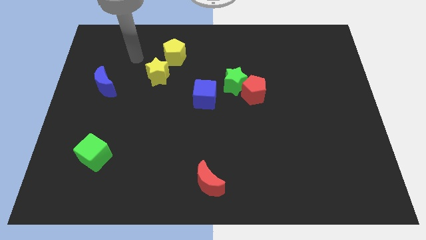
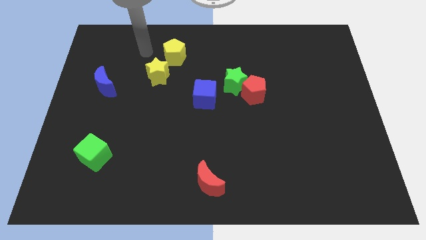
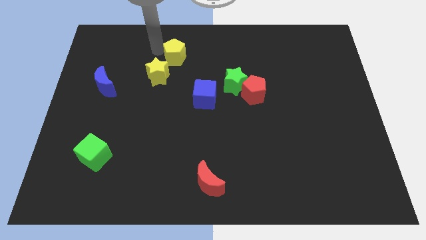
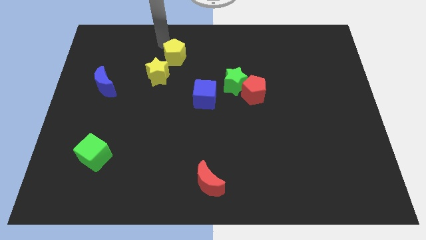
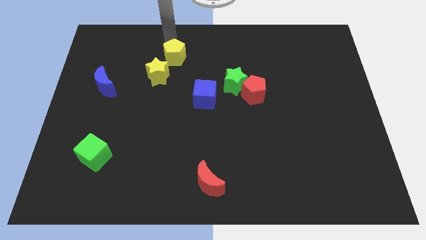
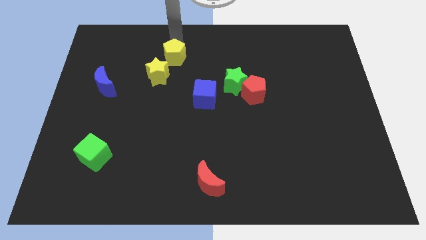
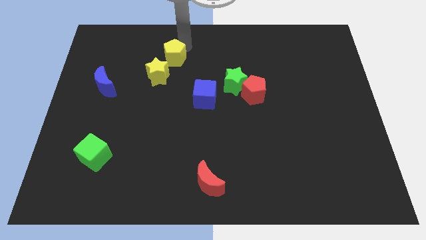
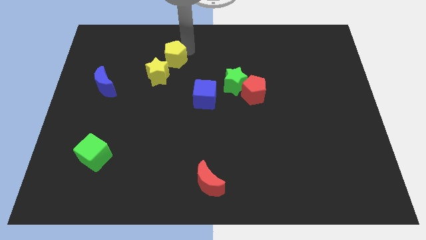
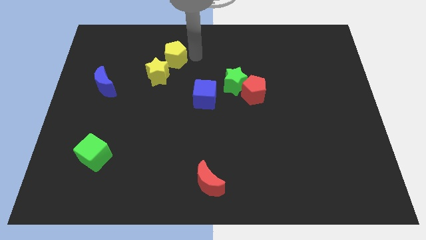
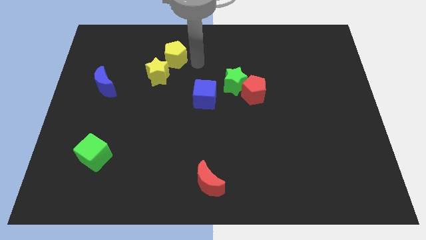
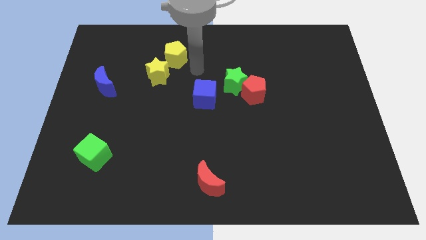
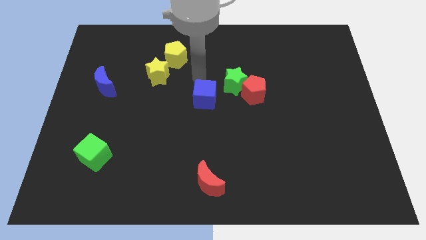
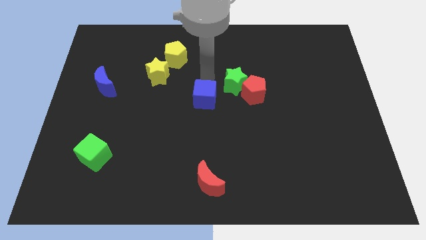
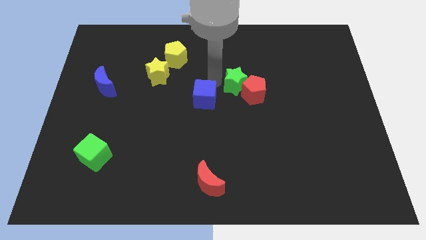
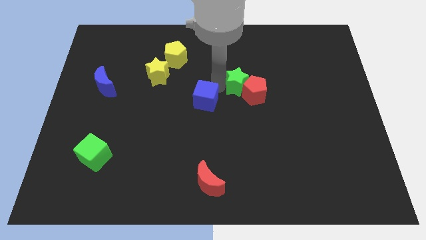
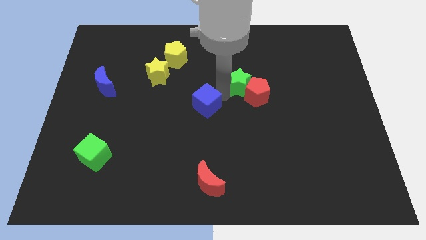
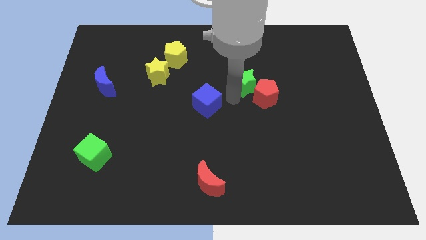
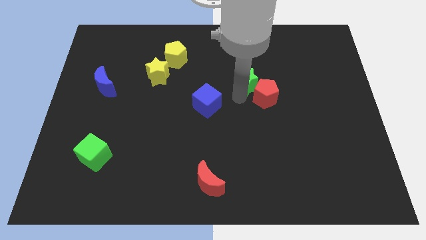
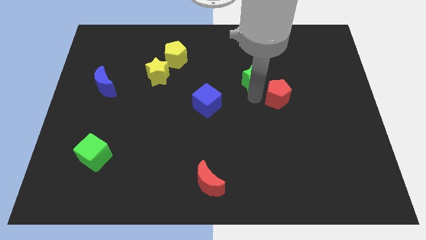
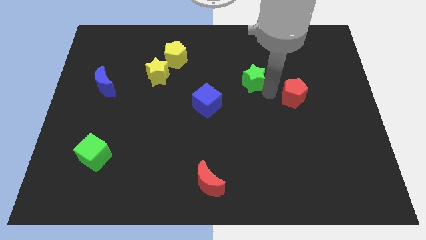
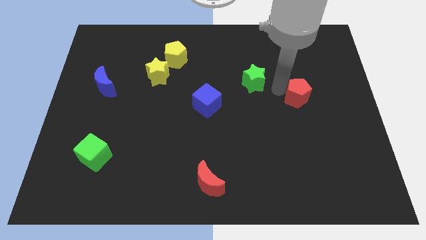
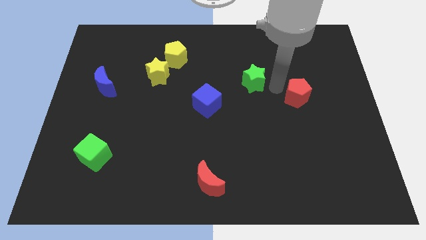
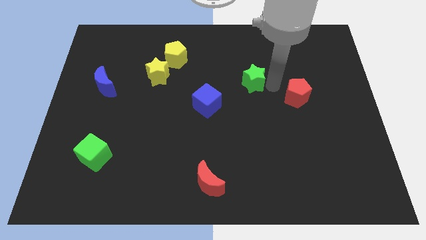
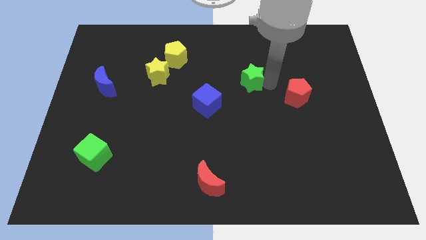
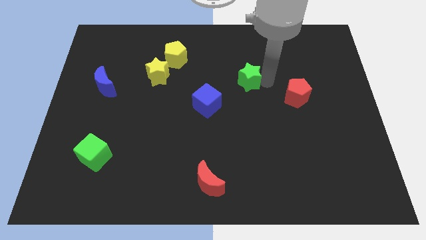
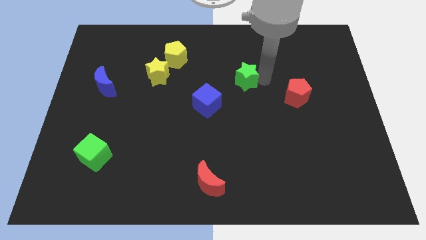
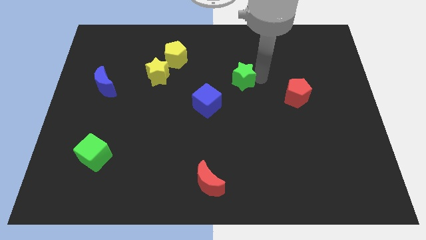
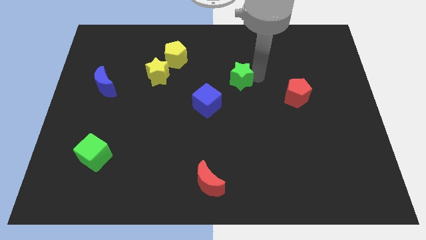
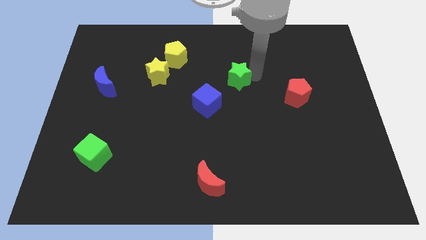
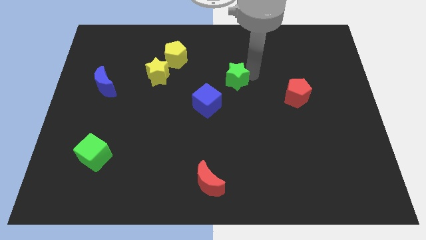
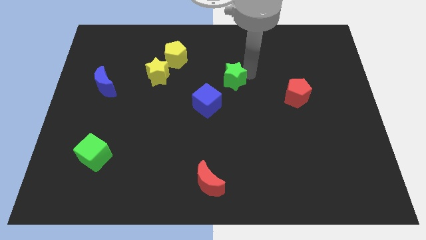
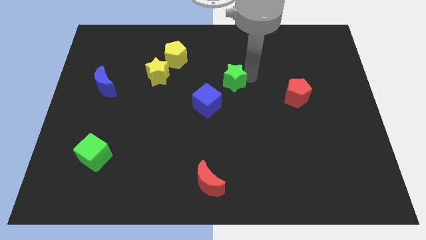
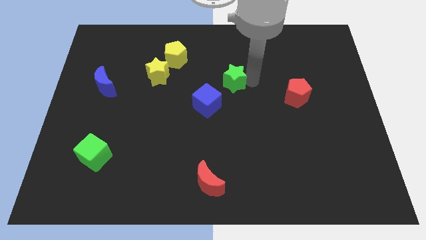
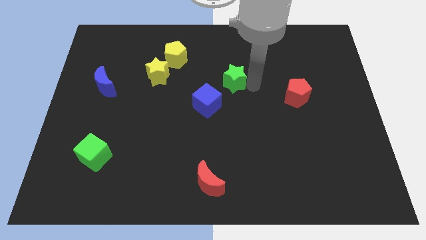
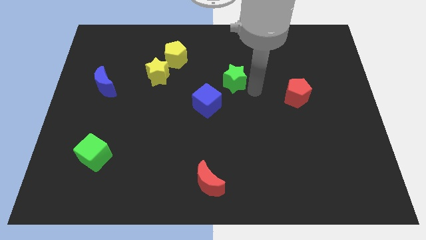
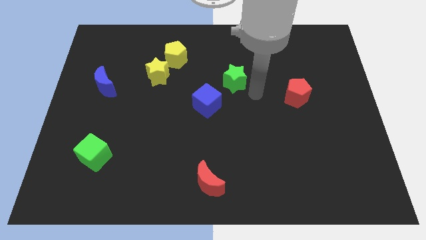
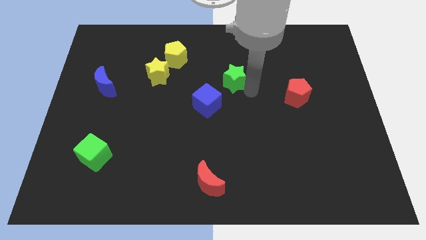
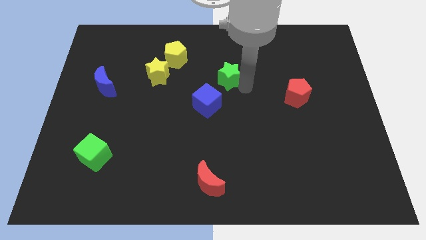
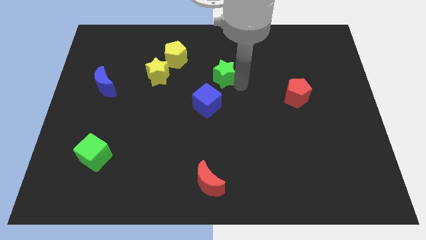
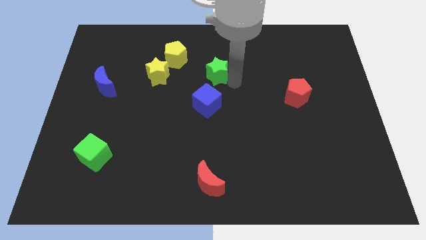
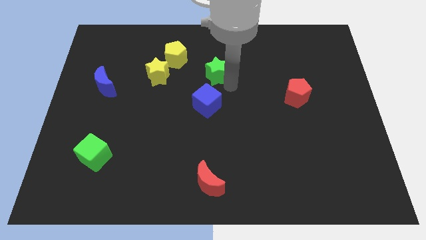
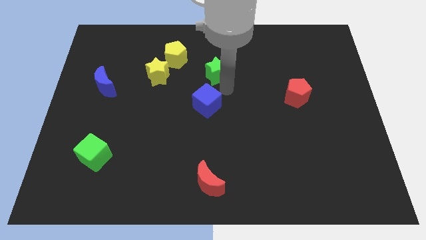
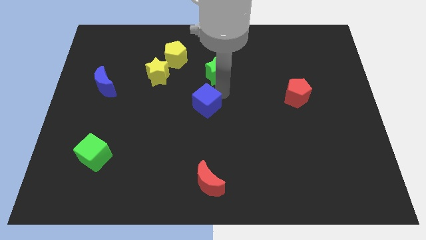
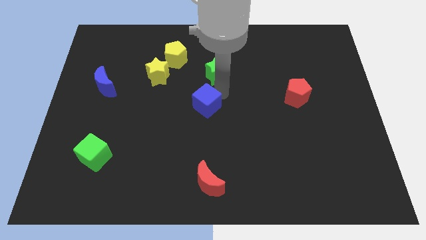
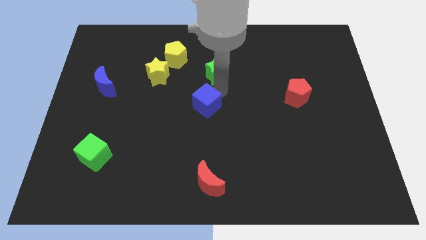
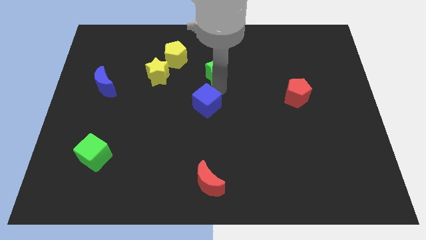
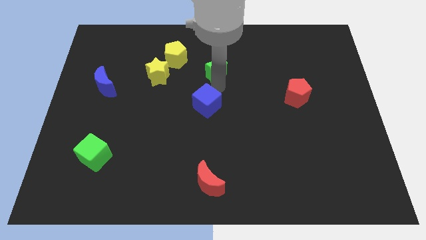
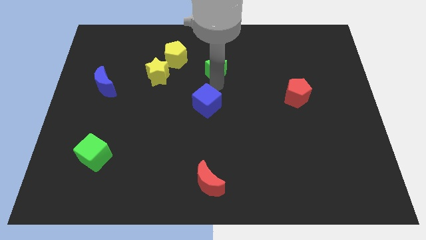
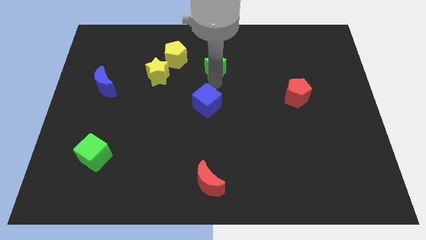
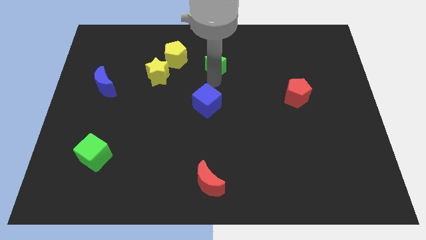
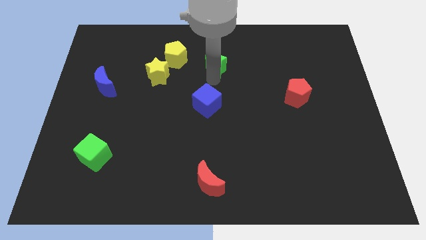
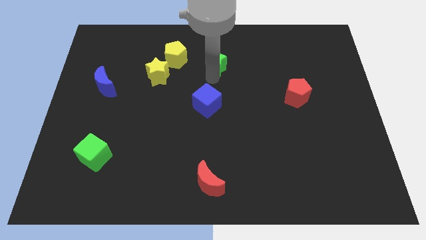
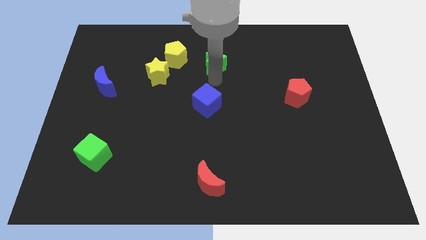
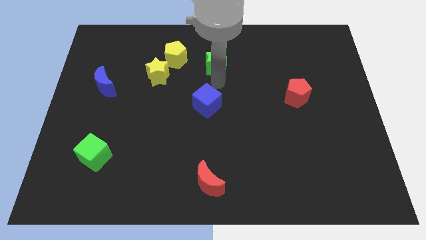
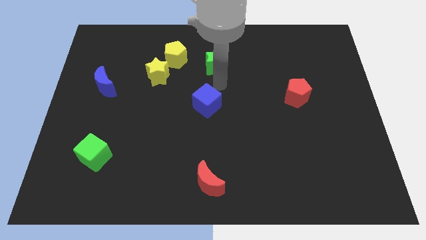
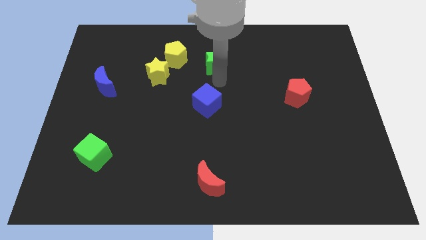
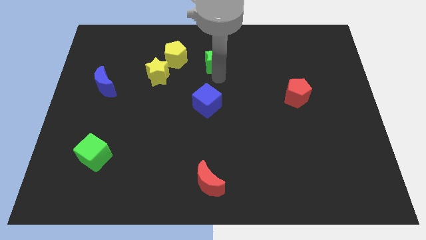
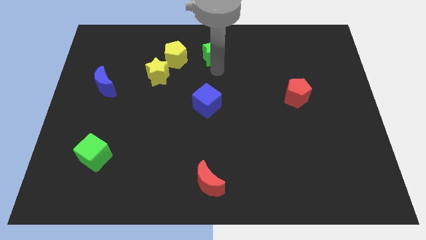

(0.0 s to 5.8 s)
push the green star to the top side

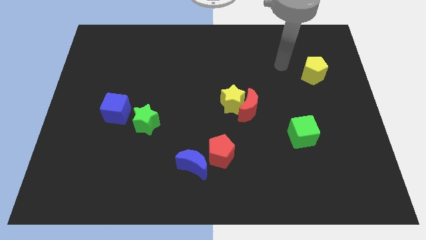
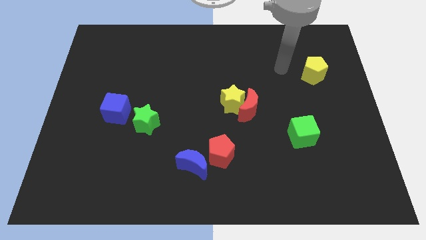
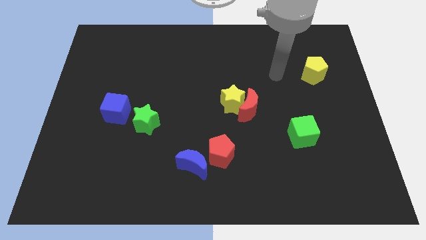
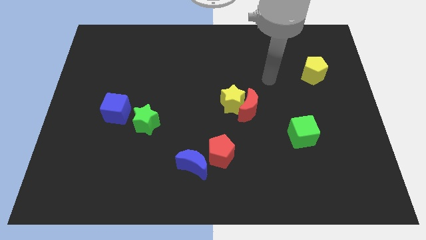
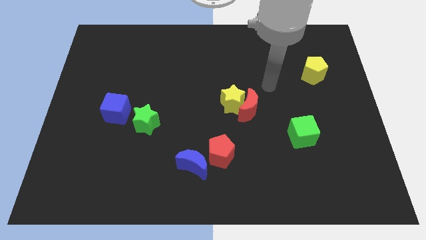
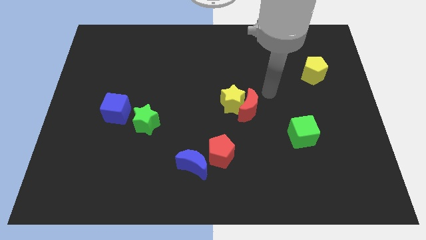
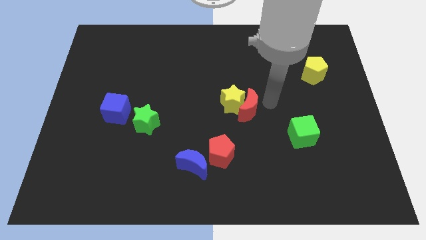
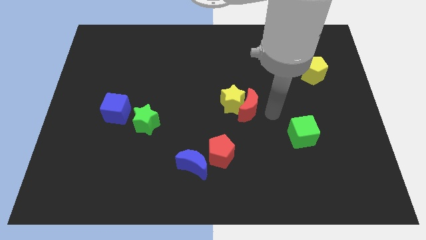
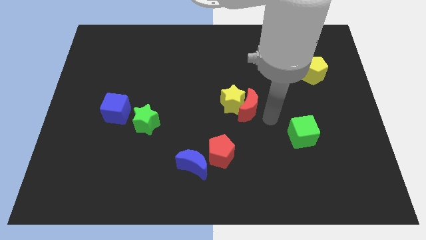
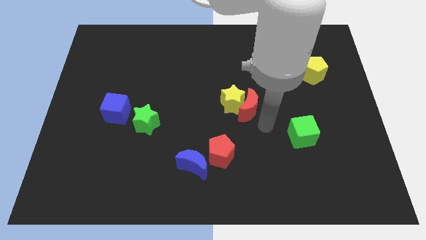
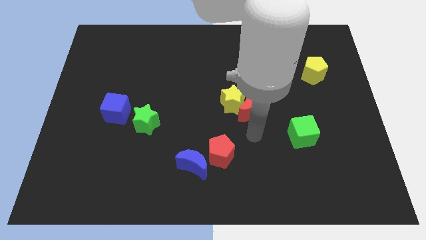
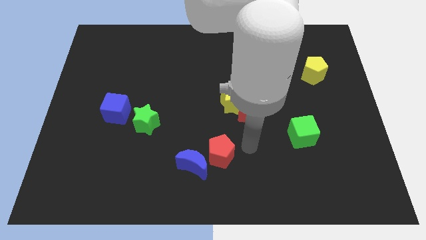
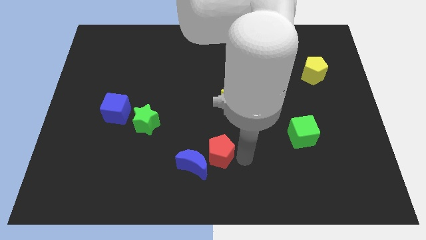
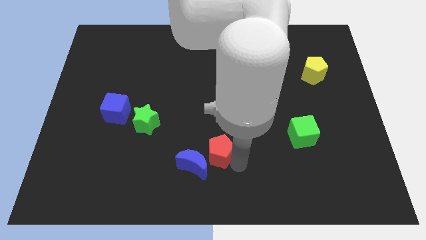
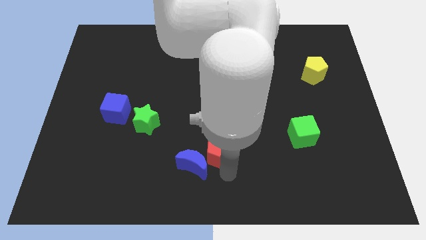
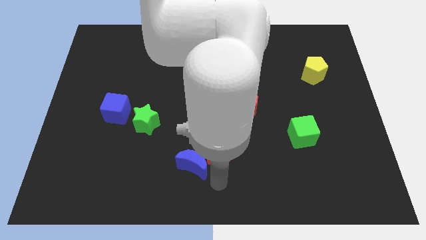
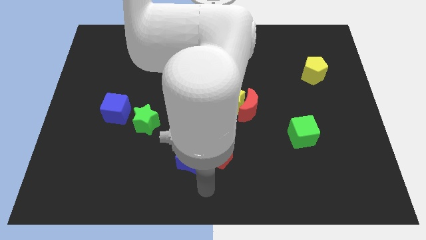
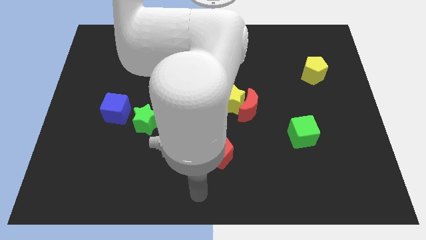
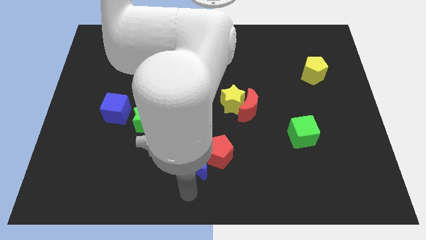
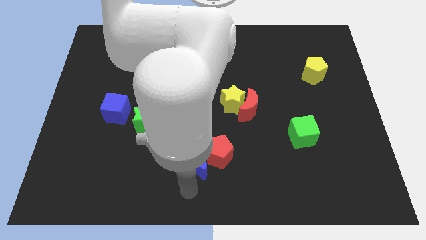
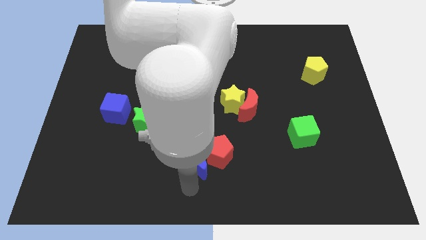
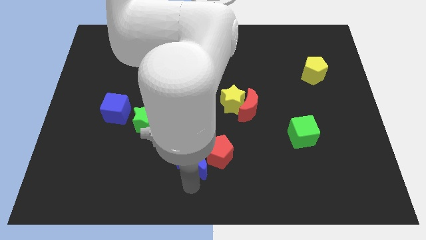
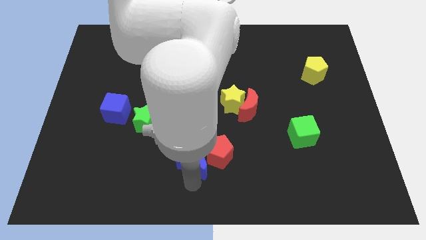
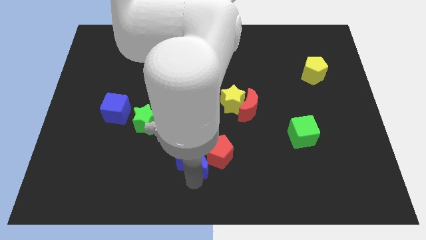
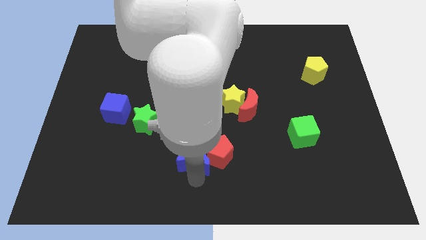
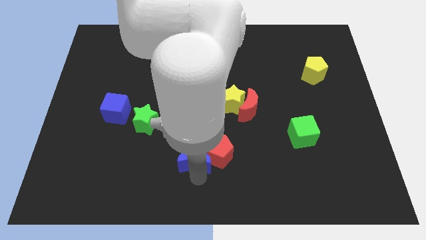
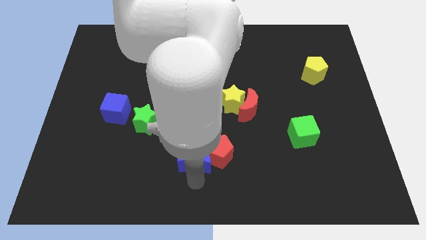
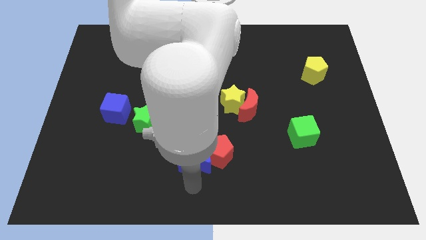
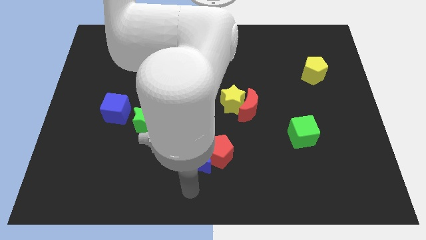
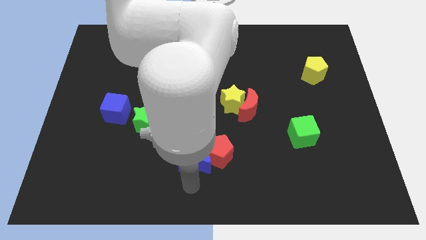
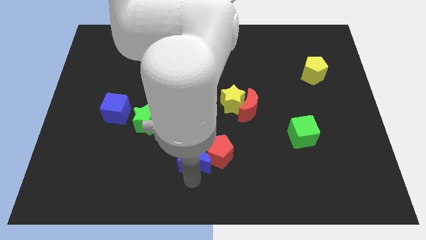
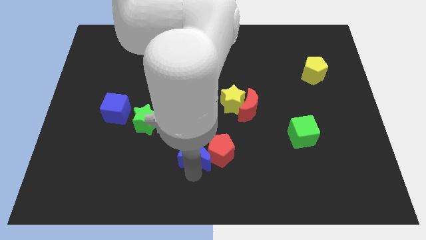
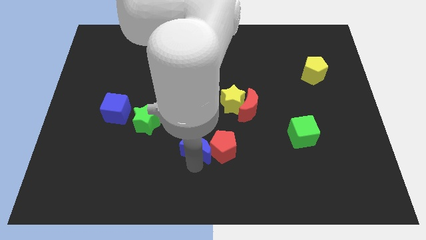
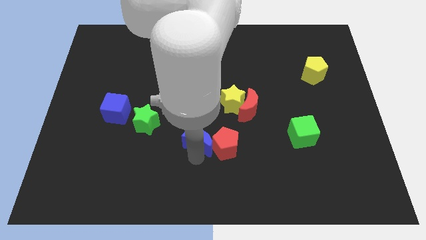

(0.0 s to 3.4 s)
move the blue moon to the center
